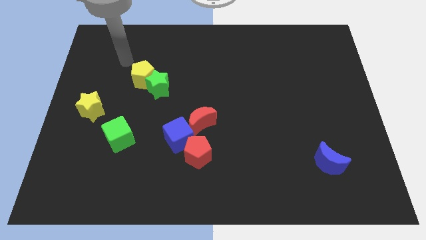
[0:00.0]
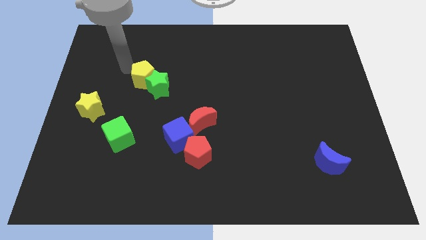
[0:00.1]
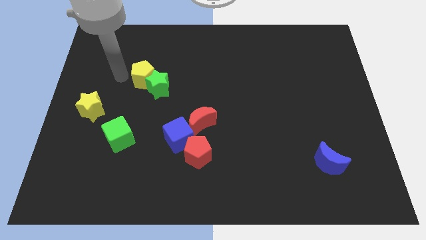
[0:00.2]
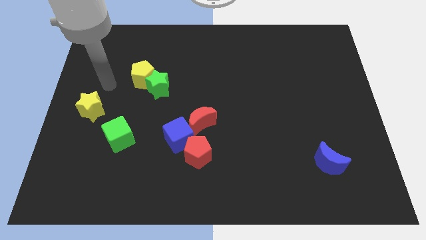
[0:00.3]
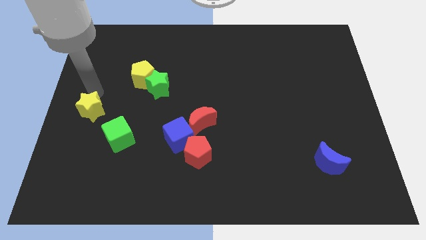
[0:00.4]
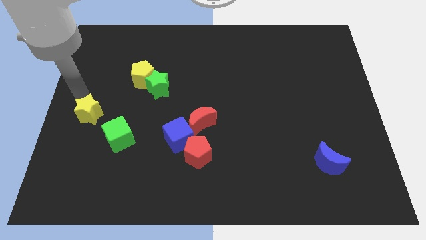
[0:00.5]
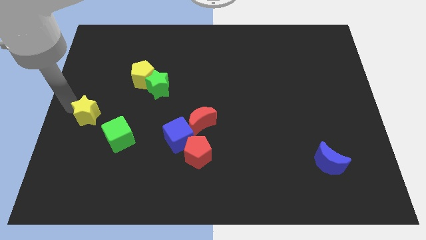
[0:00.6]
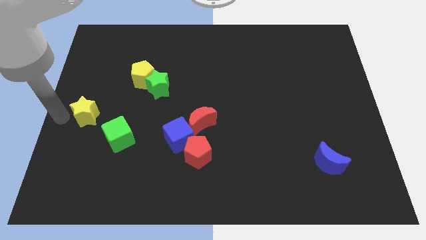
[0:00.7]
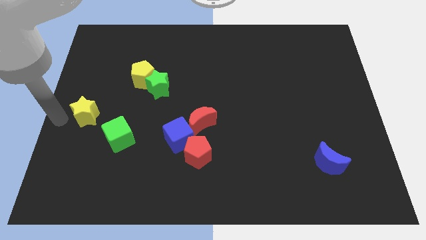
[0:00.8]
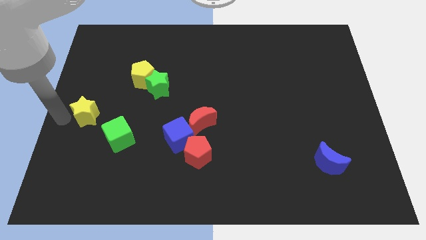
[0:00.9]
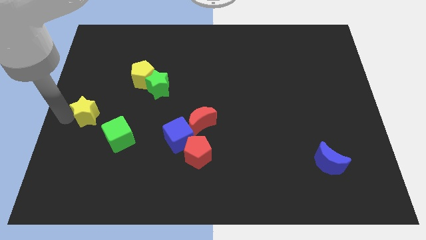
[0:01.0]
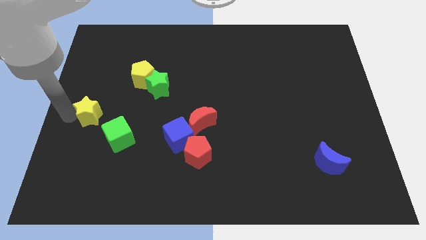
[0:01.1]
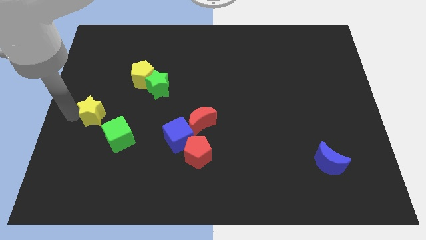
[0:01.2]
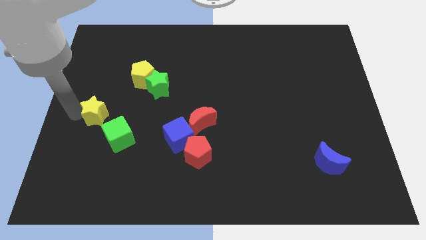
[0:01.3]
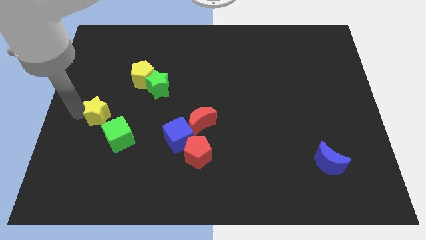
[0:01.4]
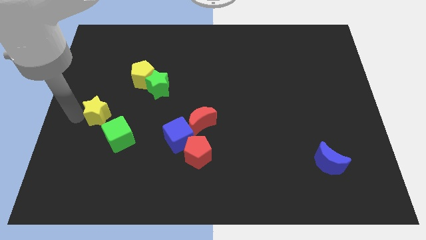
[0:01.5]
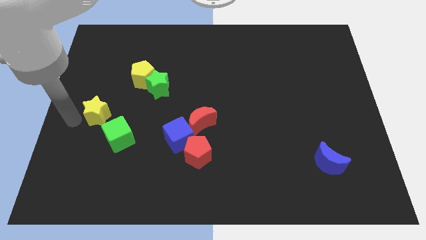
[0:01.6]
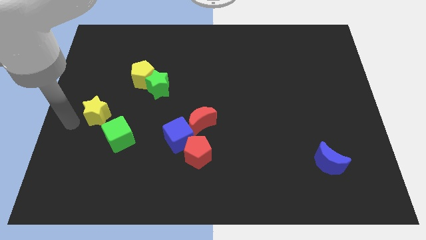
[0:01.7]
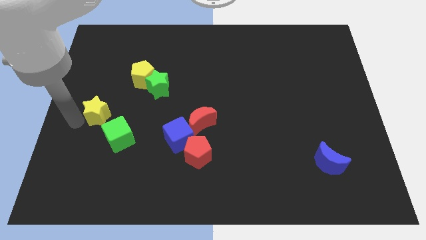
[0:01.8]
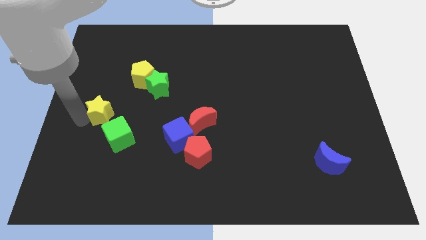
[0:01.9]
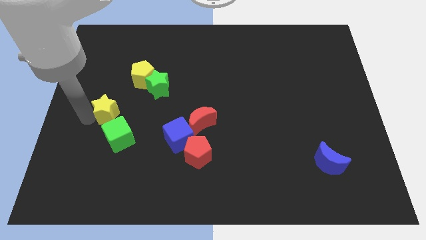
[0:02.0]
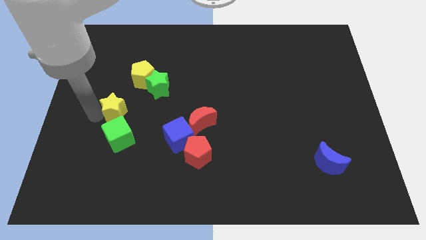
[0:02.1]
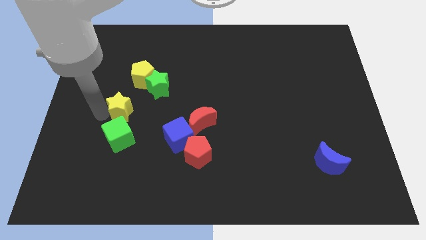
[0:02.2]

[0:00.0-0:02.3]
slightly slide the yellow star to the right

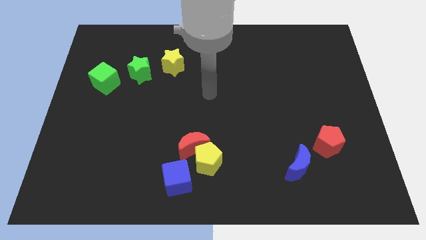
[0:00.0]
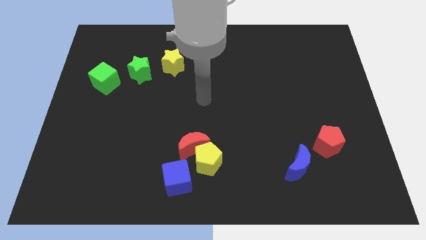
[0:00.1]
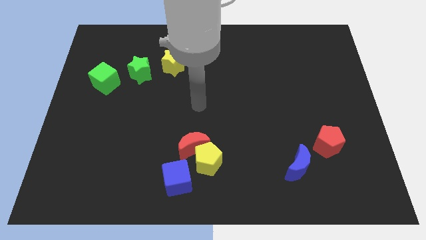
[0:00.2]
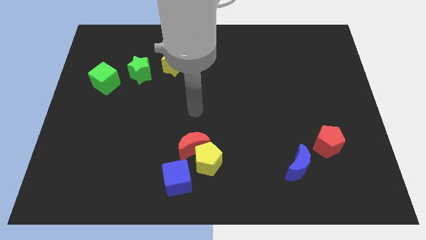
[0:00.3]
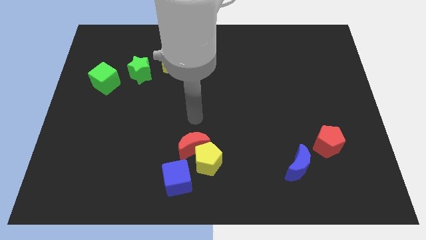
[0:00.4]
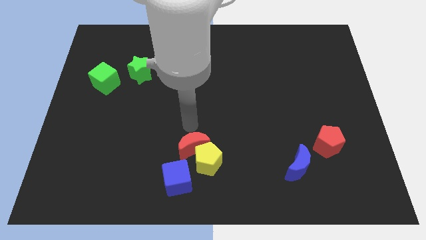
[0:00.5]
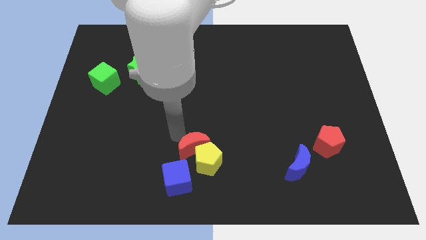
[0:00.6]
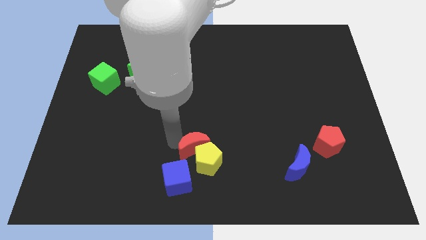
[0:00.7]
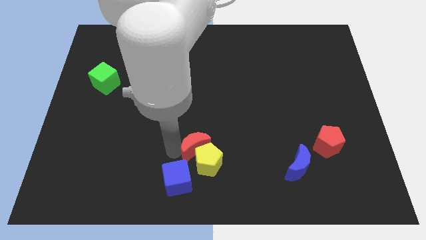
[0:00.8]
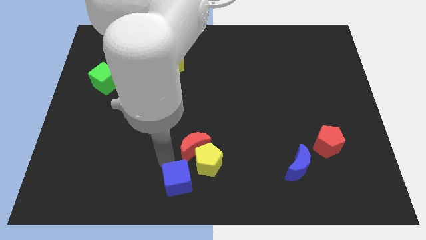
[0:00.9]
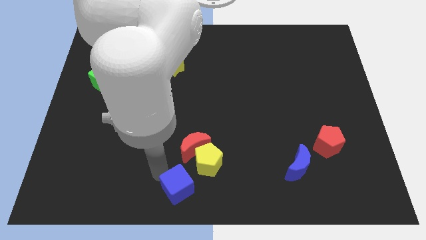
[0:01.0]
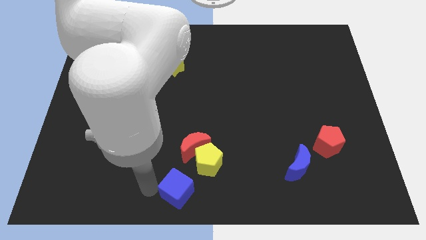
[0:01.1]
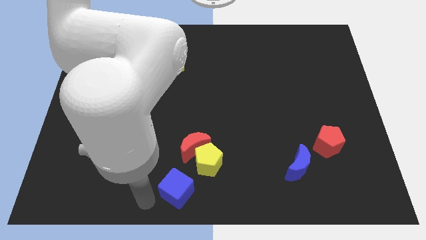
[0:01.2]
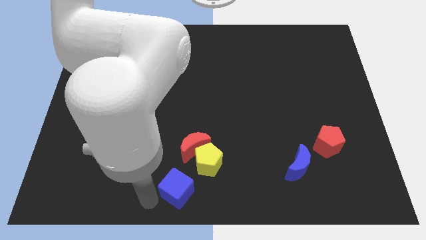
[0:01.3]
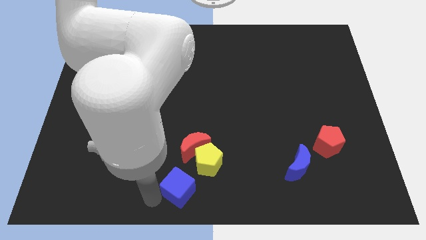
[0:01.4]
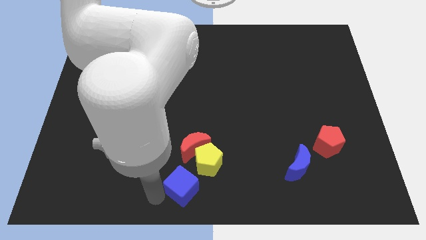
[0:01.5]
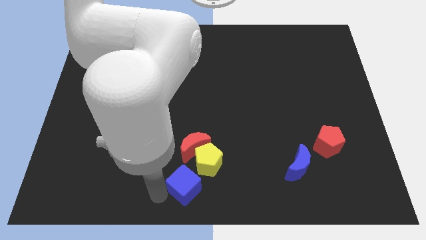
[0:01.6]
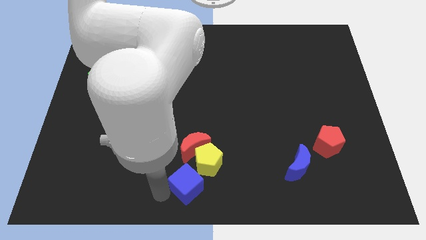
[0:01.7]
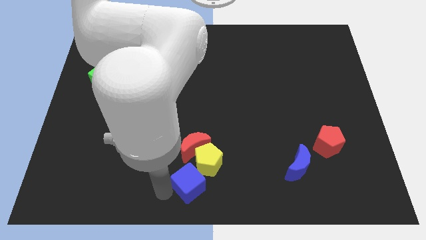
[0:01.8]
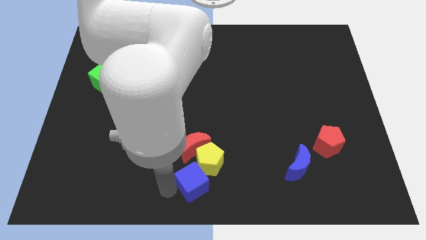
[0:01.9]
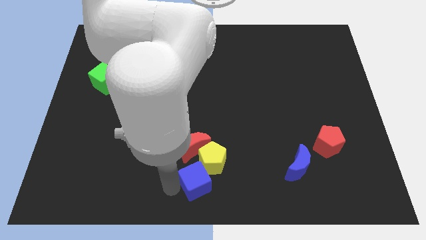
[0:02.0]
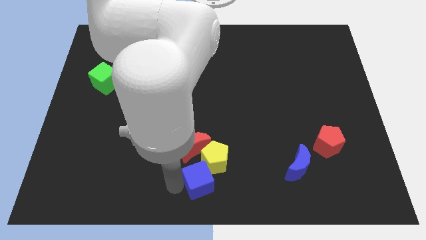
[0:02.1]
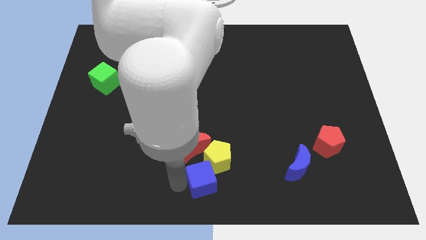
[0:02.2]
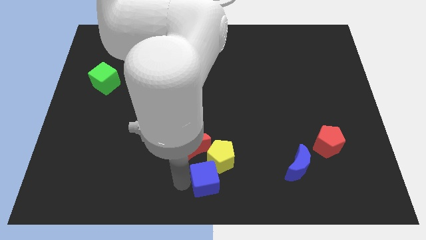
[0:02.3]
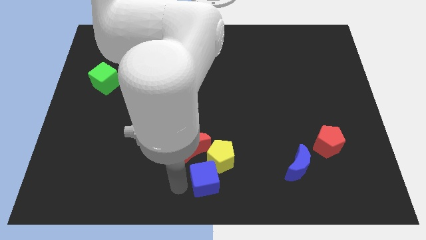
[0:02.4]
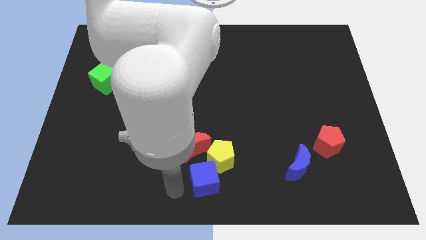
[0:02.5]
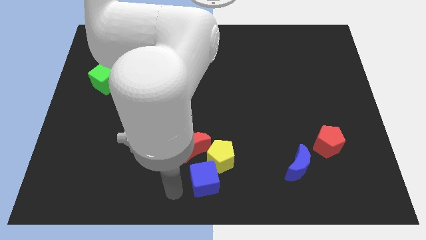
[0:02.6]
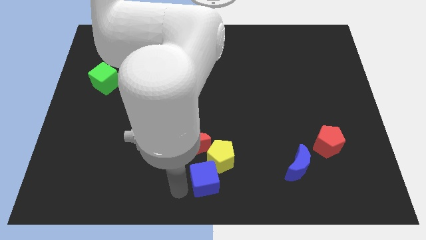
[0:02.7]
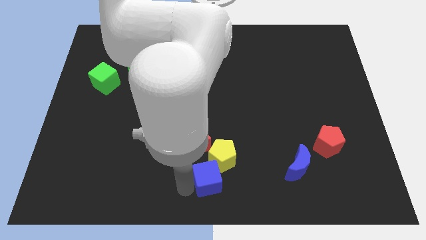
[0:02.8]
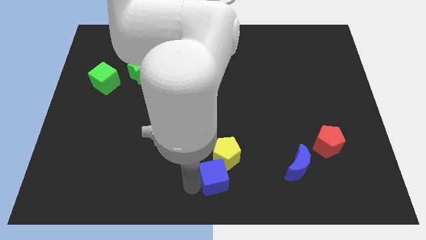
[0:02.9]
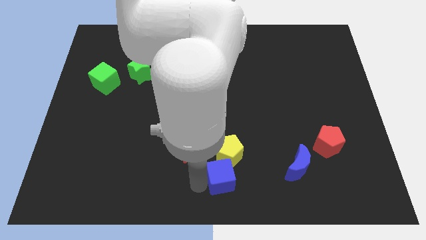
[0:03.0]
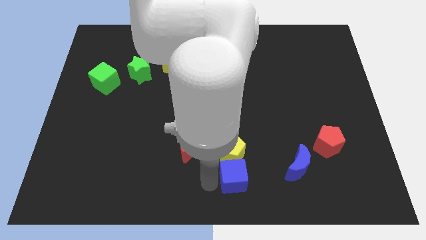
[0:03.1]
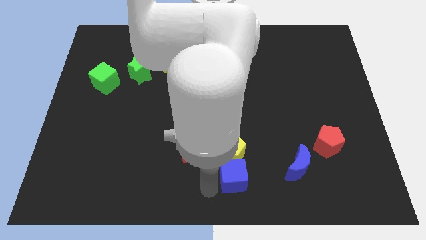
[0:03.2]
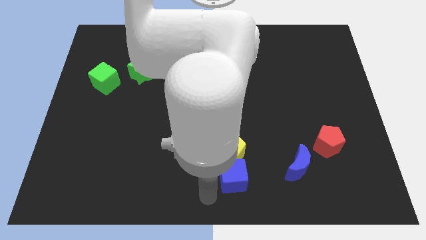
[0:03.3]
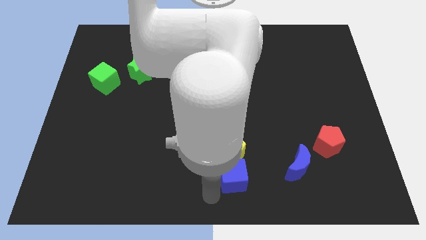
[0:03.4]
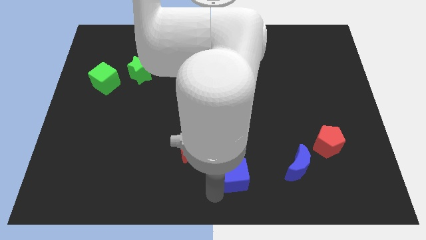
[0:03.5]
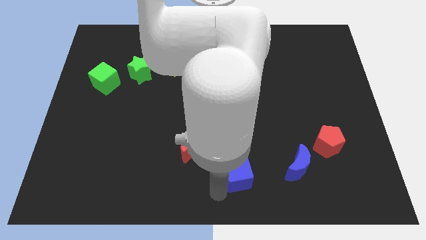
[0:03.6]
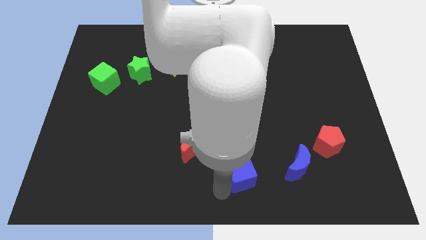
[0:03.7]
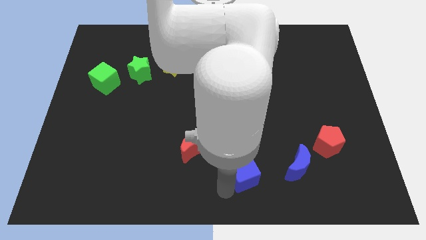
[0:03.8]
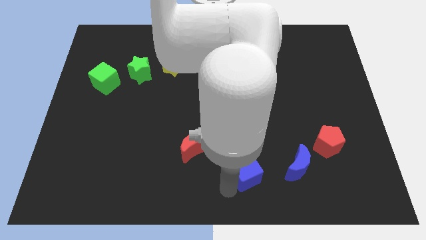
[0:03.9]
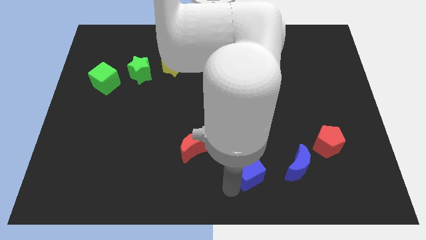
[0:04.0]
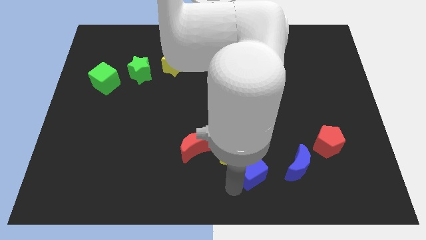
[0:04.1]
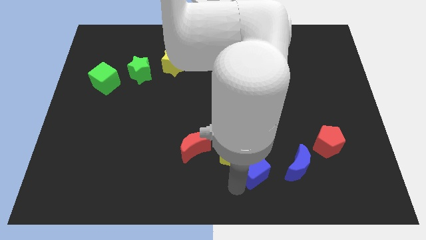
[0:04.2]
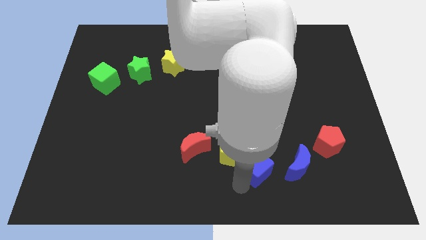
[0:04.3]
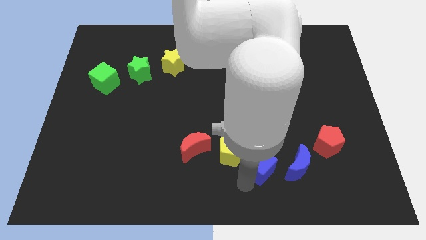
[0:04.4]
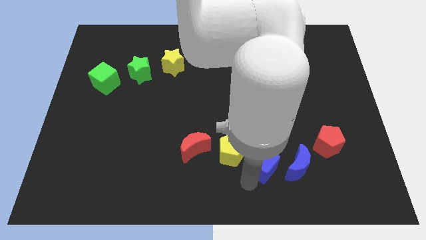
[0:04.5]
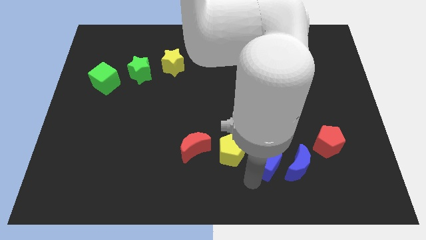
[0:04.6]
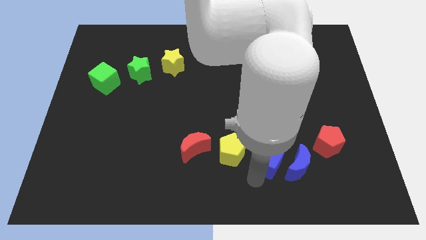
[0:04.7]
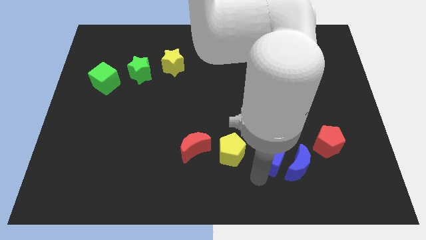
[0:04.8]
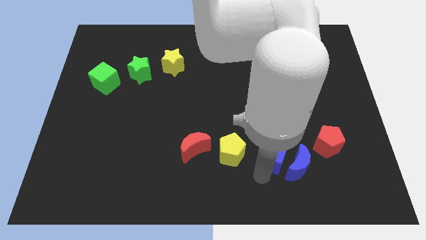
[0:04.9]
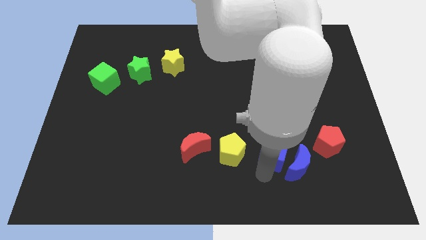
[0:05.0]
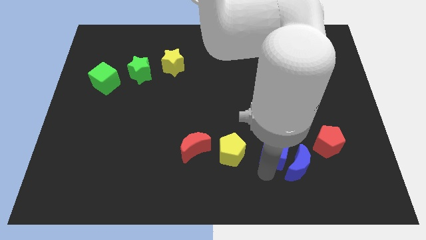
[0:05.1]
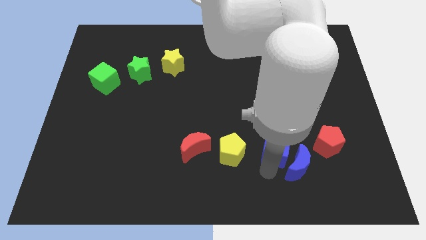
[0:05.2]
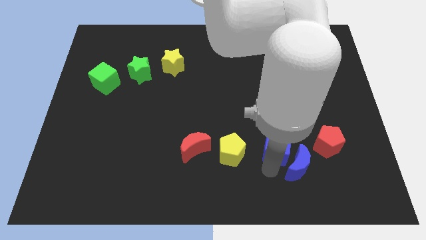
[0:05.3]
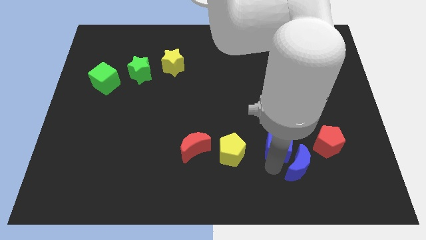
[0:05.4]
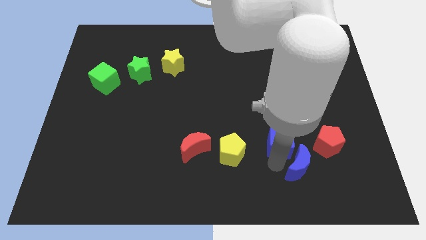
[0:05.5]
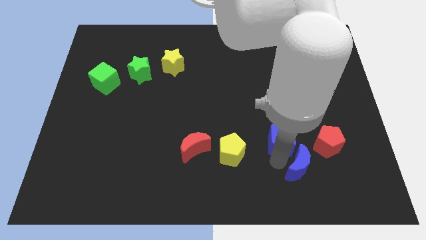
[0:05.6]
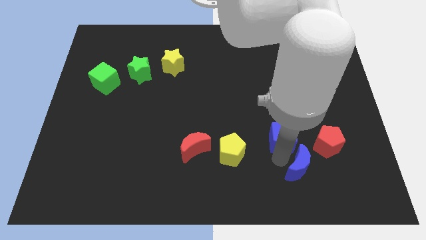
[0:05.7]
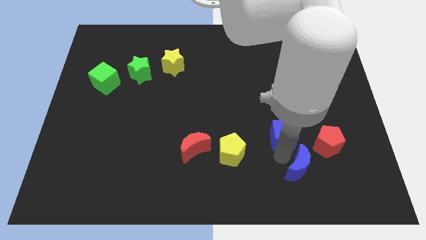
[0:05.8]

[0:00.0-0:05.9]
move the blue cube upwards and right diagonally
